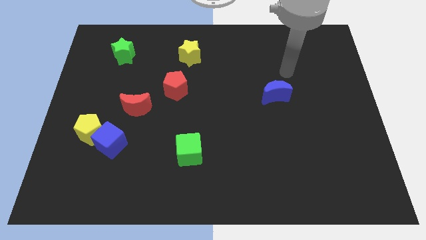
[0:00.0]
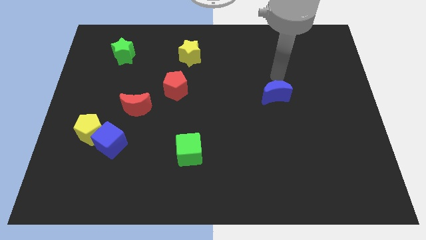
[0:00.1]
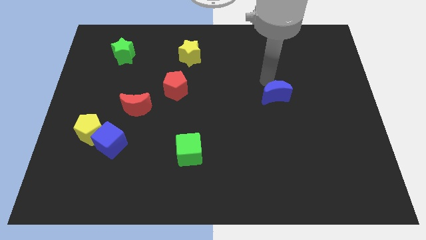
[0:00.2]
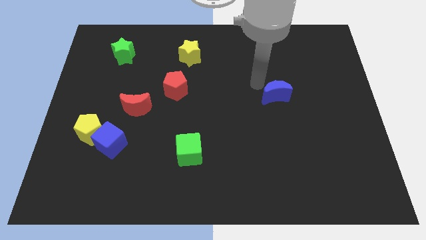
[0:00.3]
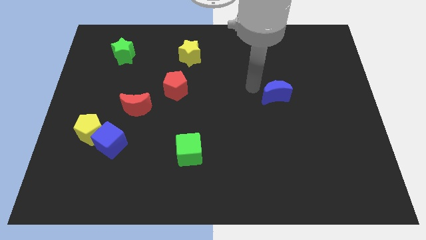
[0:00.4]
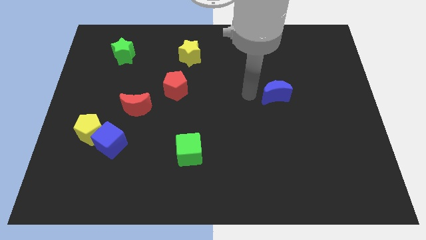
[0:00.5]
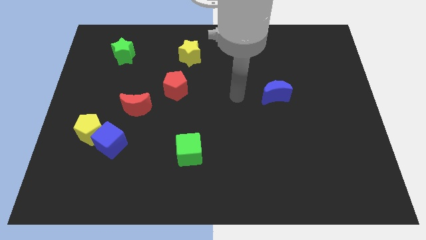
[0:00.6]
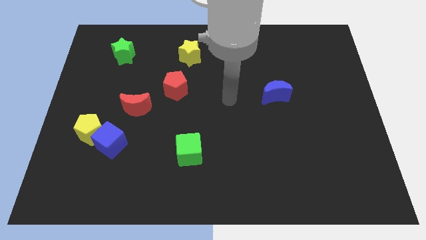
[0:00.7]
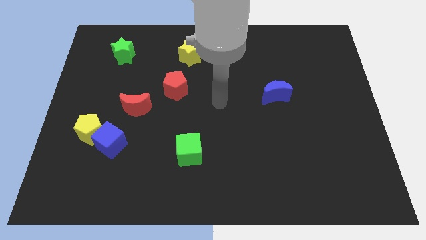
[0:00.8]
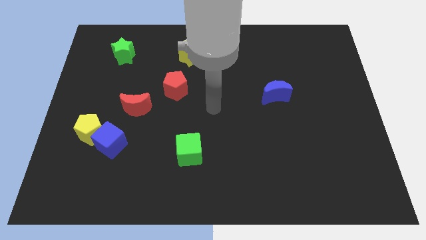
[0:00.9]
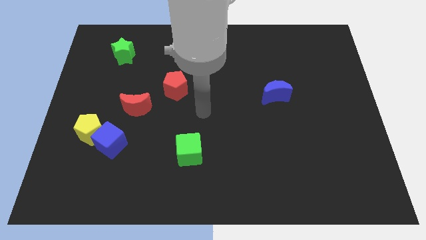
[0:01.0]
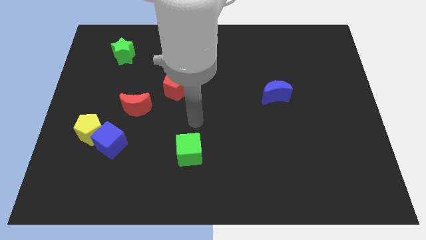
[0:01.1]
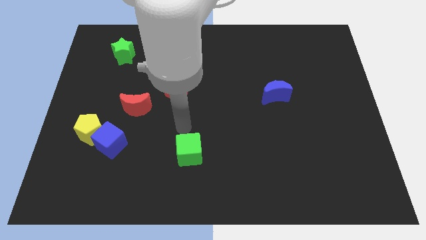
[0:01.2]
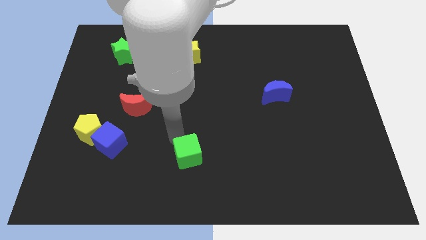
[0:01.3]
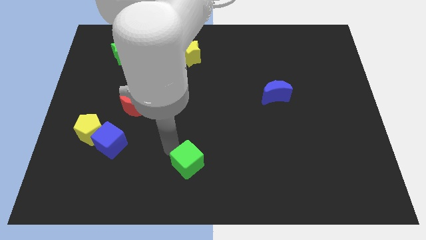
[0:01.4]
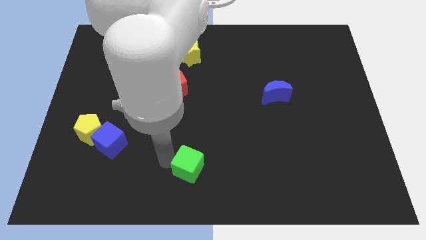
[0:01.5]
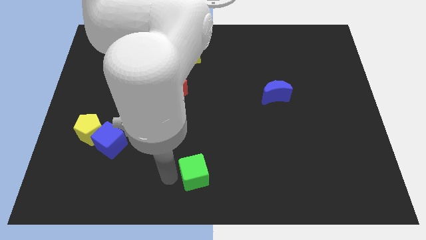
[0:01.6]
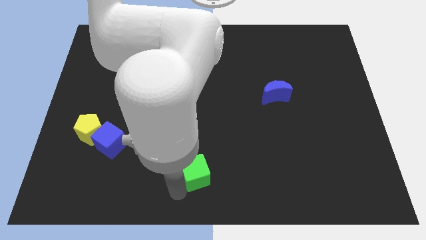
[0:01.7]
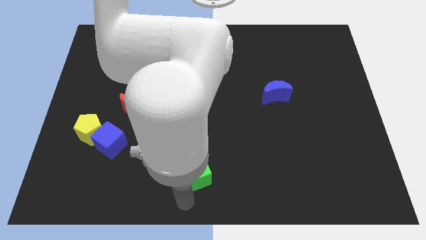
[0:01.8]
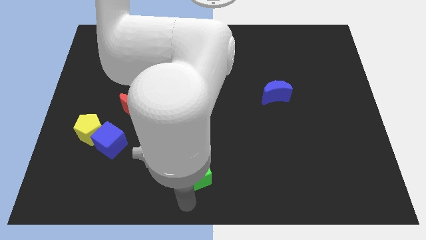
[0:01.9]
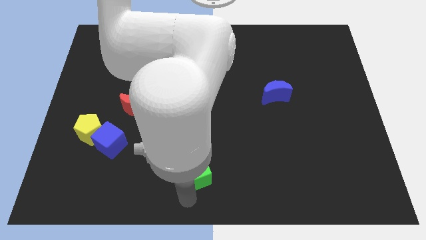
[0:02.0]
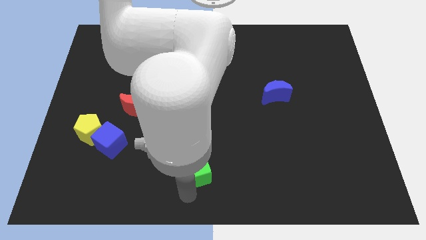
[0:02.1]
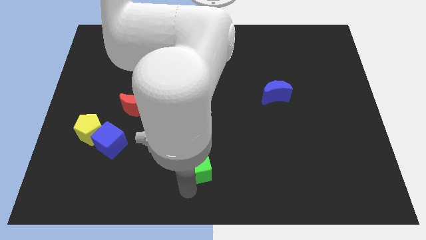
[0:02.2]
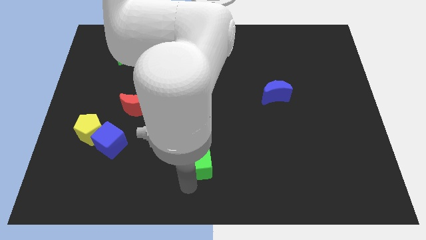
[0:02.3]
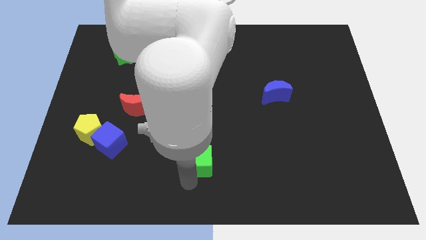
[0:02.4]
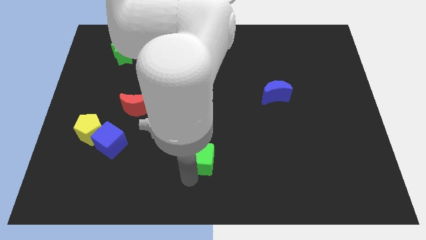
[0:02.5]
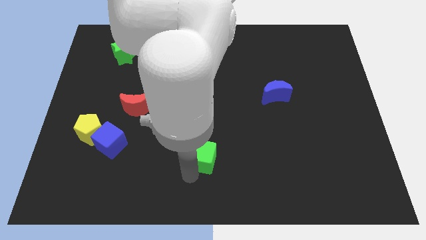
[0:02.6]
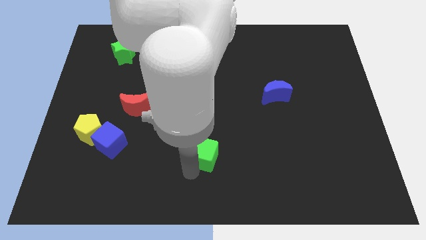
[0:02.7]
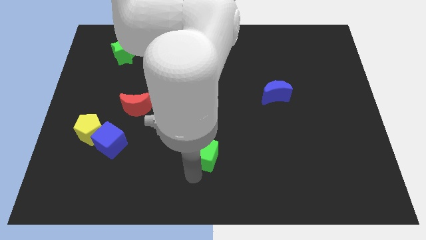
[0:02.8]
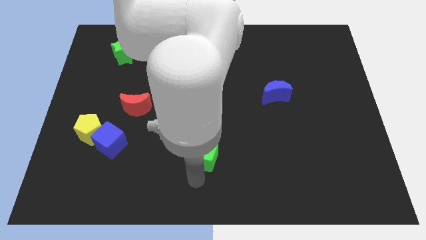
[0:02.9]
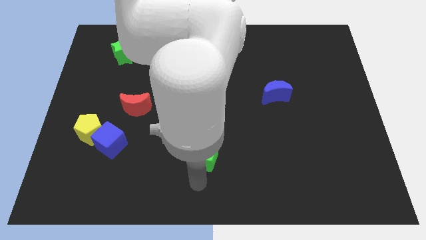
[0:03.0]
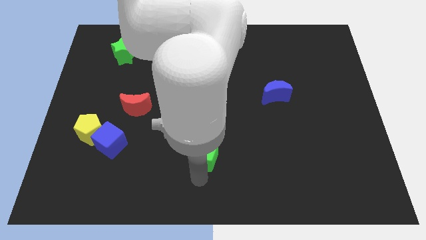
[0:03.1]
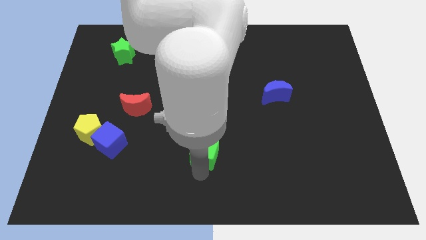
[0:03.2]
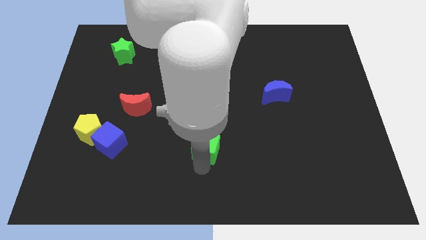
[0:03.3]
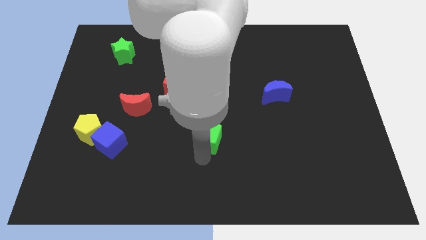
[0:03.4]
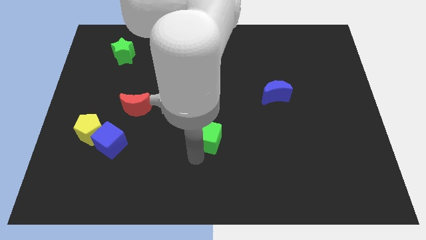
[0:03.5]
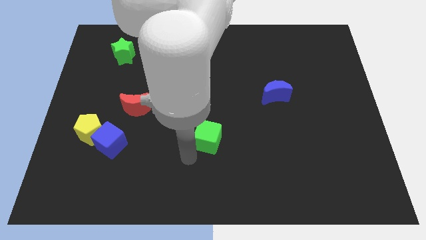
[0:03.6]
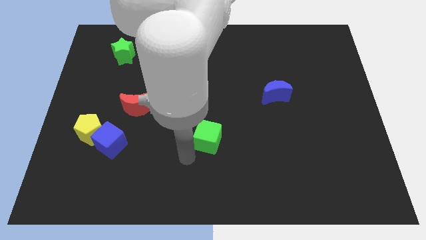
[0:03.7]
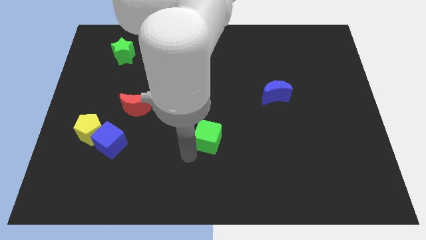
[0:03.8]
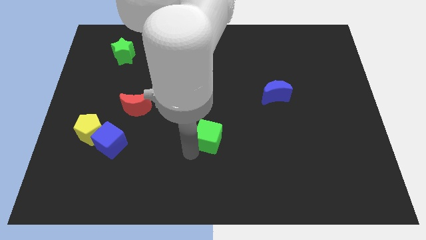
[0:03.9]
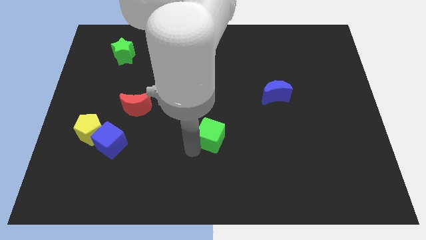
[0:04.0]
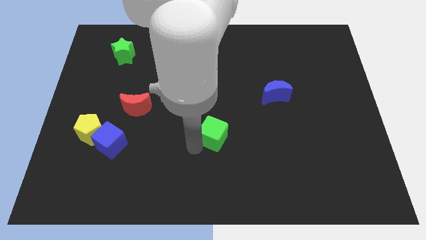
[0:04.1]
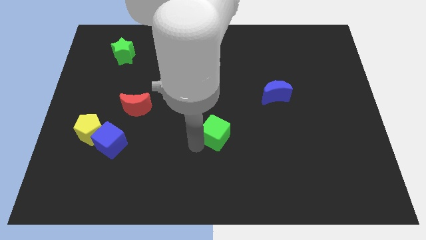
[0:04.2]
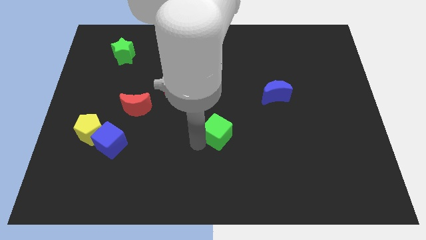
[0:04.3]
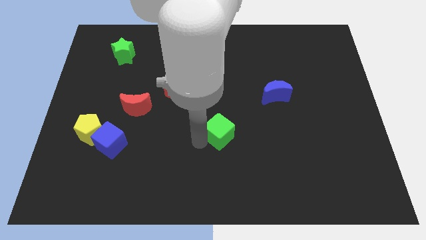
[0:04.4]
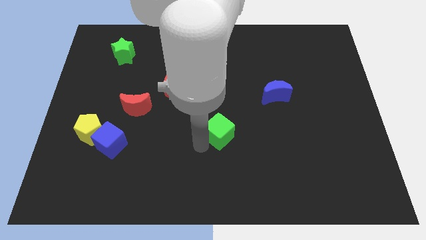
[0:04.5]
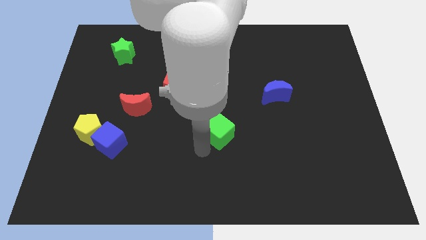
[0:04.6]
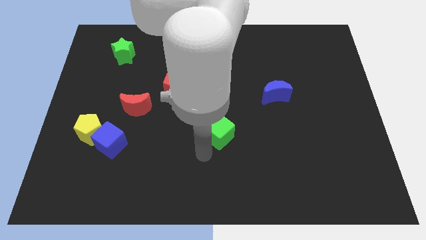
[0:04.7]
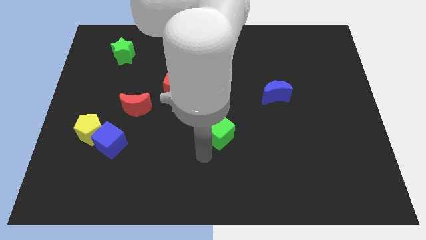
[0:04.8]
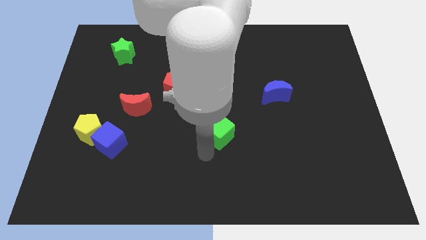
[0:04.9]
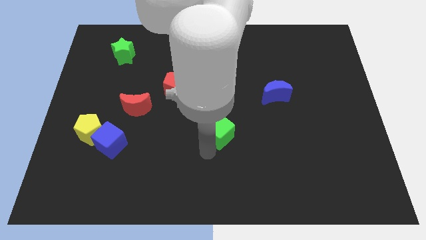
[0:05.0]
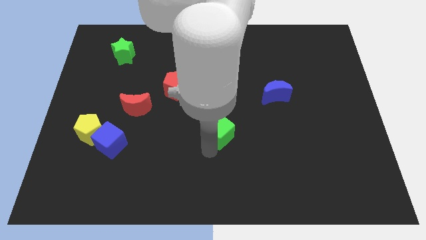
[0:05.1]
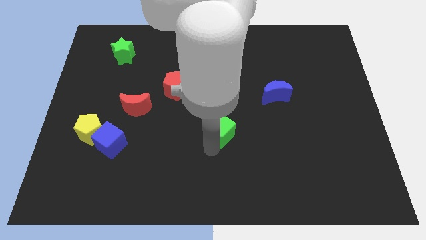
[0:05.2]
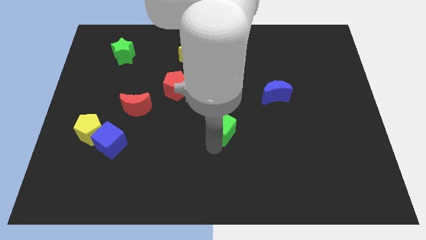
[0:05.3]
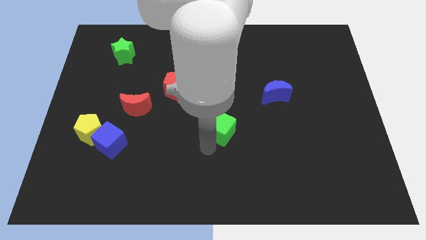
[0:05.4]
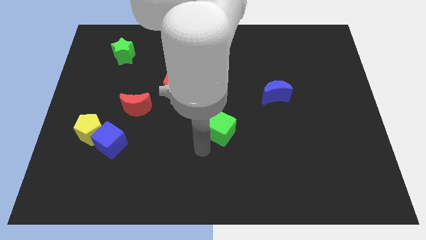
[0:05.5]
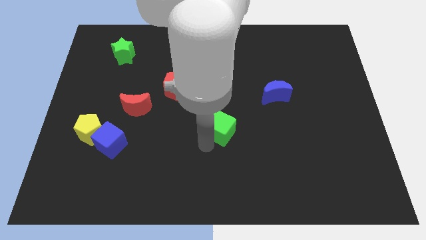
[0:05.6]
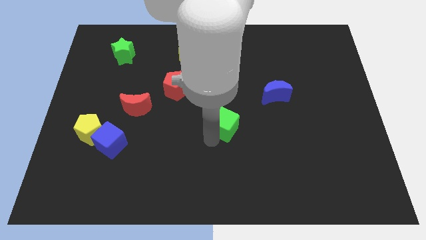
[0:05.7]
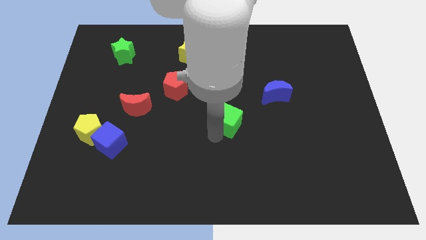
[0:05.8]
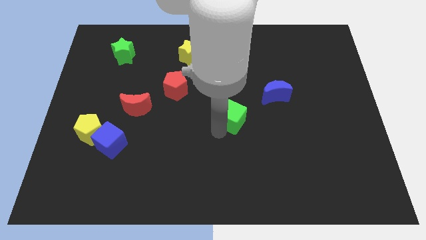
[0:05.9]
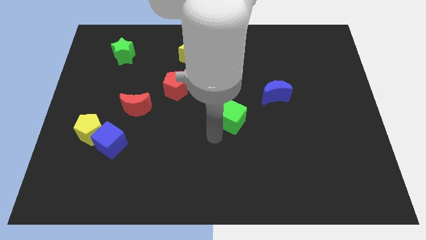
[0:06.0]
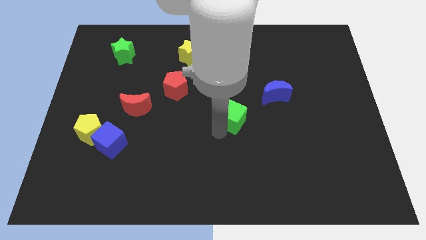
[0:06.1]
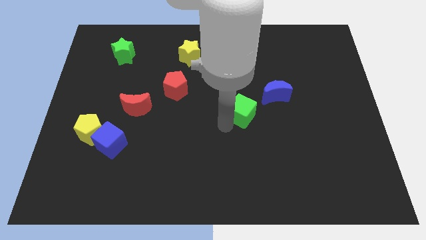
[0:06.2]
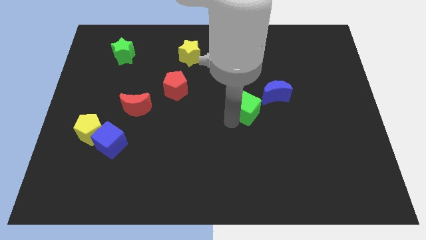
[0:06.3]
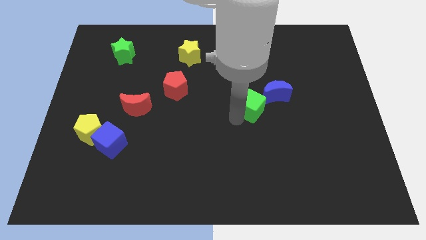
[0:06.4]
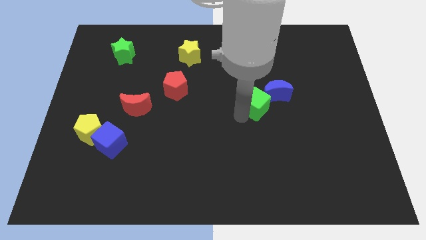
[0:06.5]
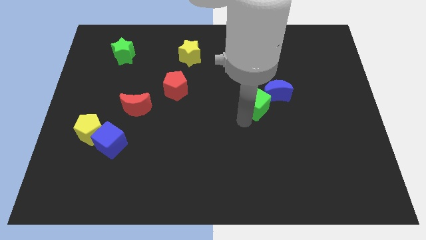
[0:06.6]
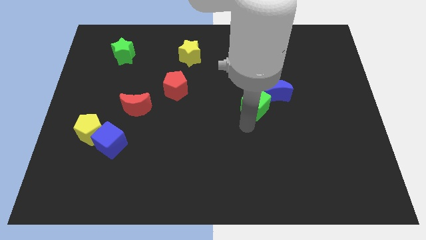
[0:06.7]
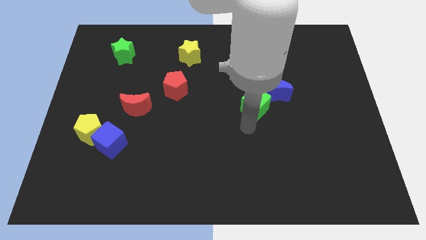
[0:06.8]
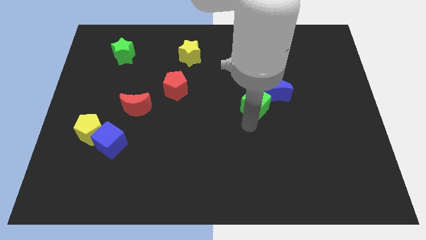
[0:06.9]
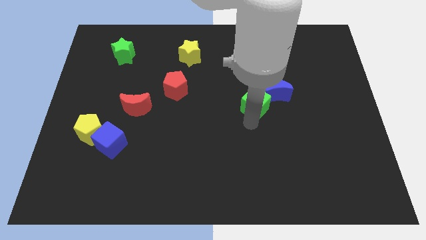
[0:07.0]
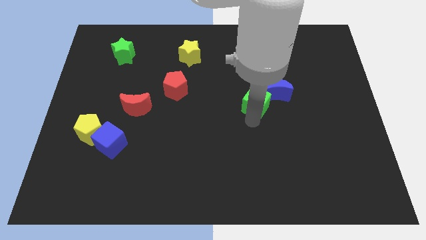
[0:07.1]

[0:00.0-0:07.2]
slide the green cube diagonally upwards and right

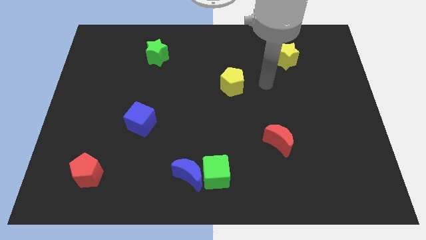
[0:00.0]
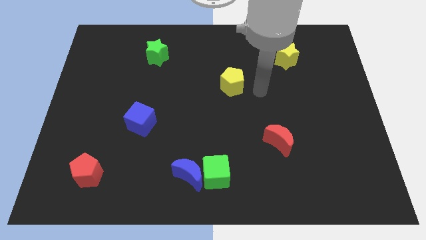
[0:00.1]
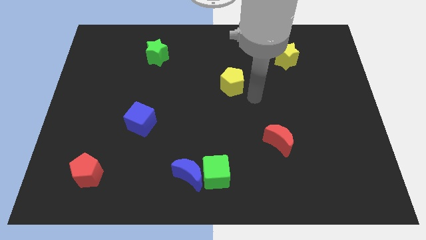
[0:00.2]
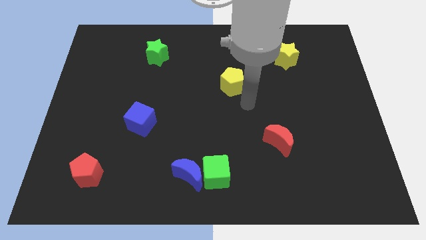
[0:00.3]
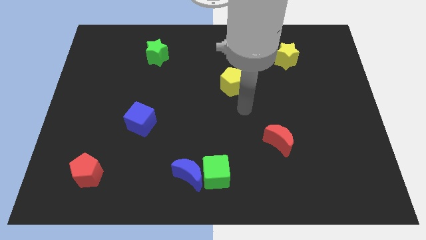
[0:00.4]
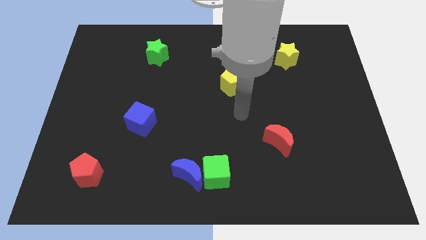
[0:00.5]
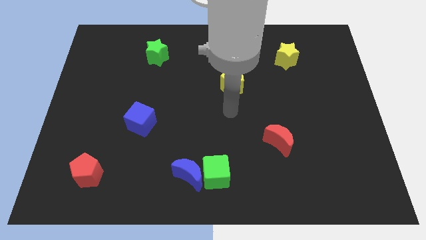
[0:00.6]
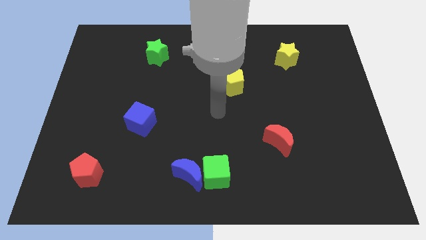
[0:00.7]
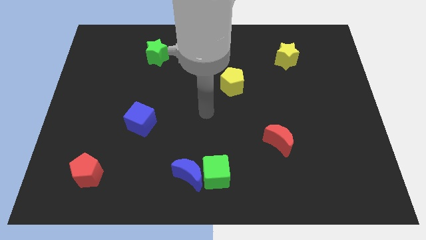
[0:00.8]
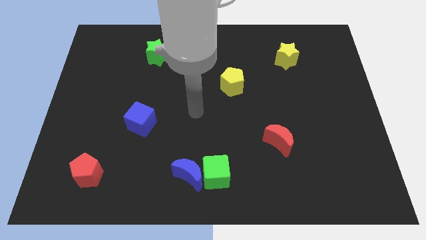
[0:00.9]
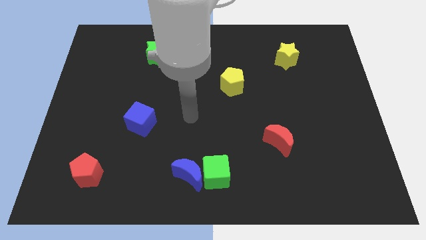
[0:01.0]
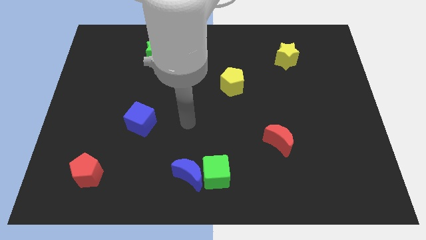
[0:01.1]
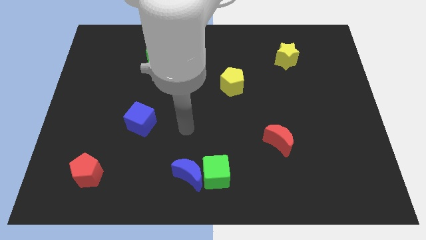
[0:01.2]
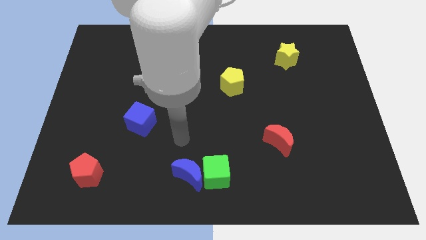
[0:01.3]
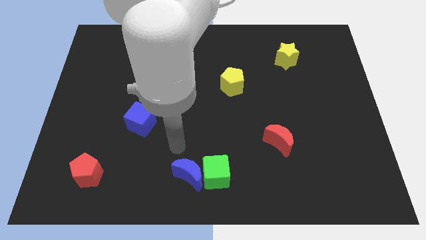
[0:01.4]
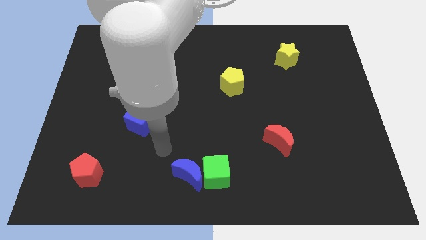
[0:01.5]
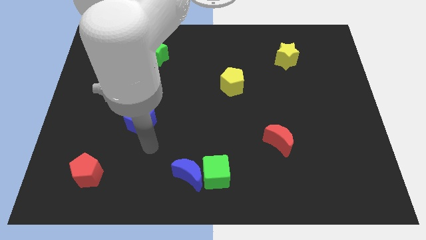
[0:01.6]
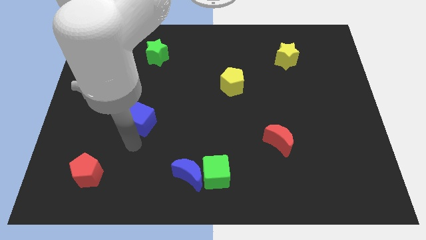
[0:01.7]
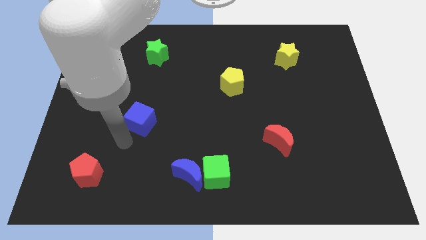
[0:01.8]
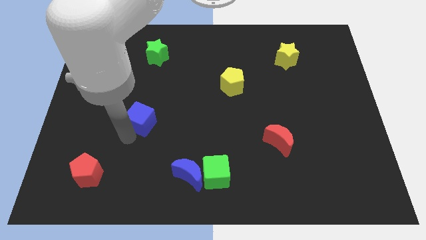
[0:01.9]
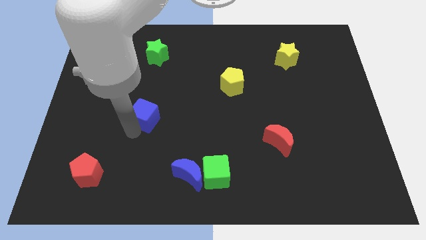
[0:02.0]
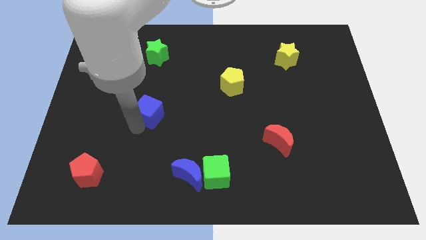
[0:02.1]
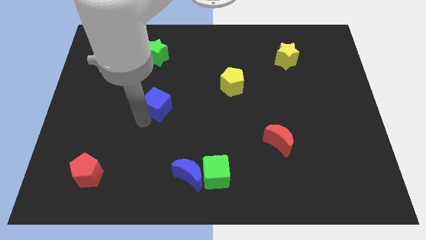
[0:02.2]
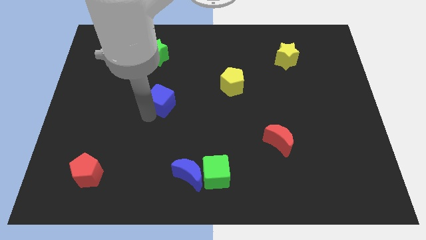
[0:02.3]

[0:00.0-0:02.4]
slightly push the blue cube upwards and to the right diagonally
